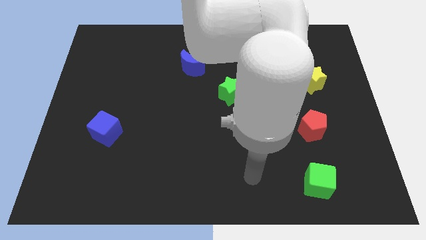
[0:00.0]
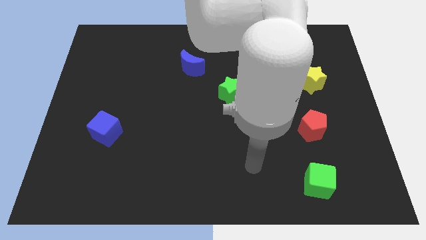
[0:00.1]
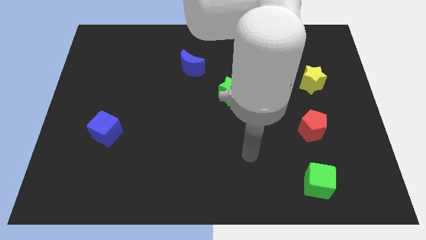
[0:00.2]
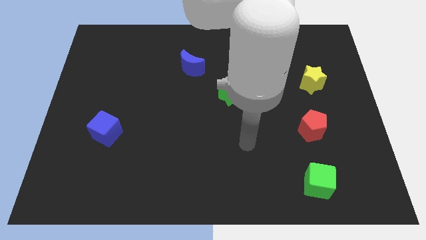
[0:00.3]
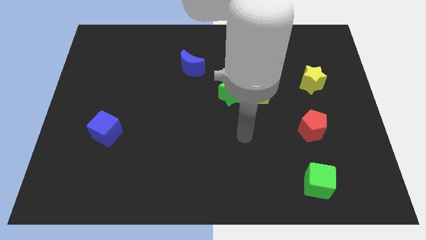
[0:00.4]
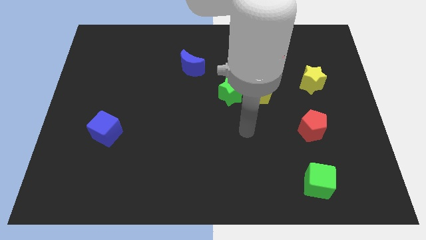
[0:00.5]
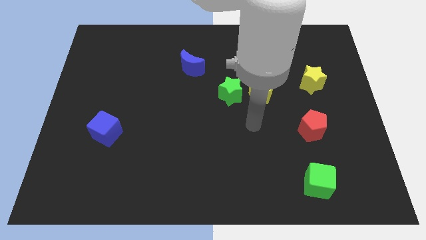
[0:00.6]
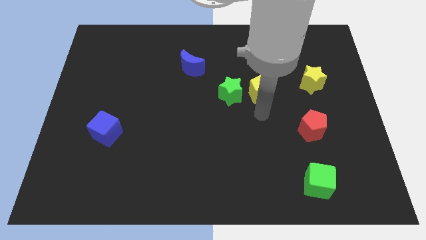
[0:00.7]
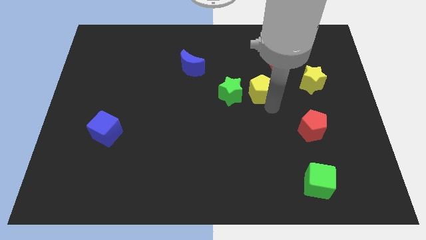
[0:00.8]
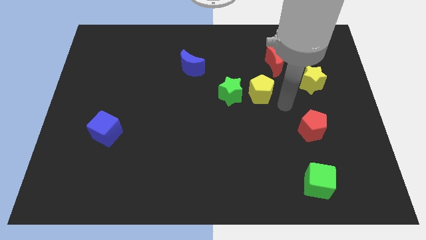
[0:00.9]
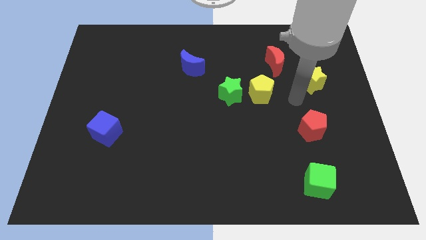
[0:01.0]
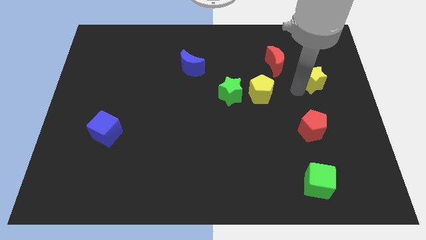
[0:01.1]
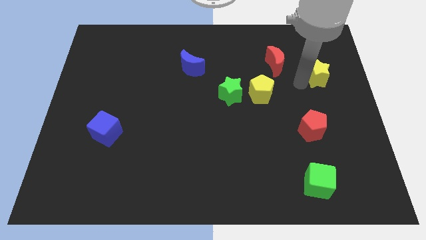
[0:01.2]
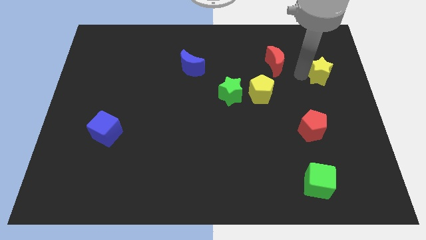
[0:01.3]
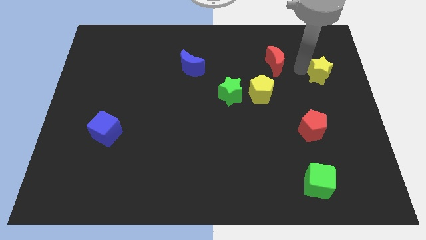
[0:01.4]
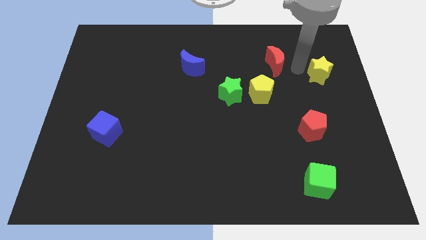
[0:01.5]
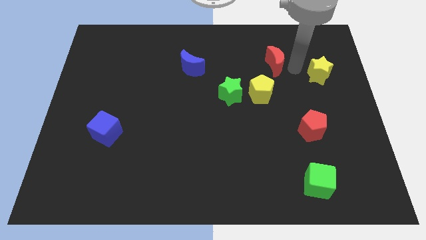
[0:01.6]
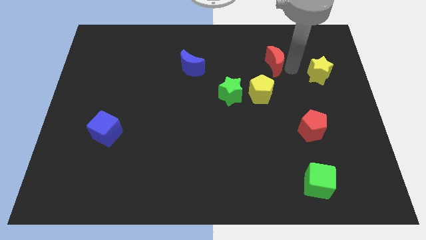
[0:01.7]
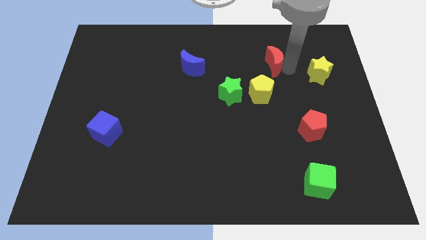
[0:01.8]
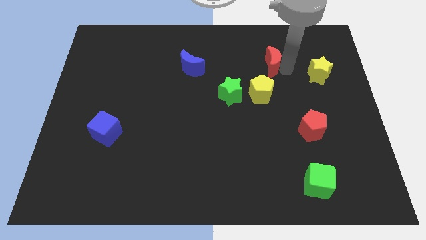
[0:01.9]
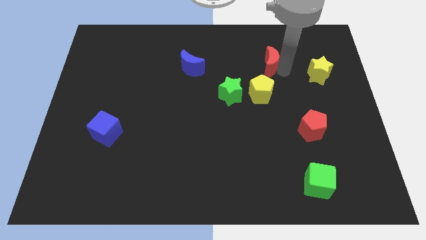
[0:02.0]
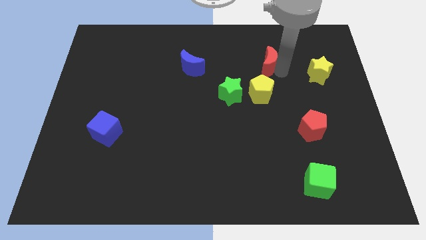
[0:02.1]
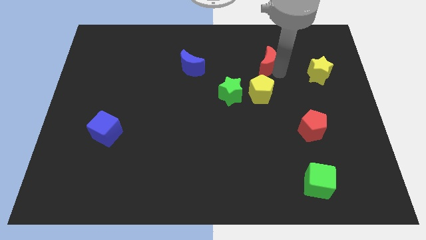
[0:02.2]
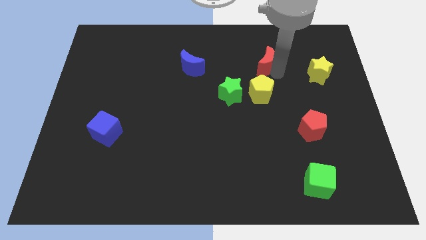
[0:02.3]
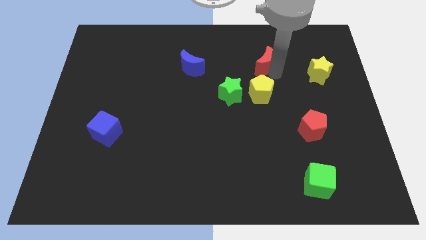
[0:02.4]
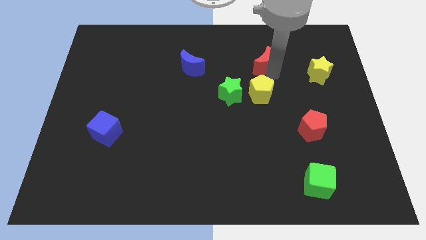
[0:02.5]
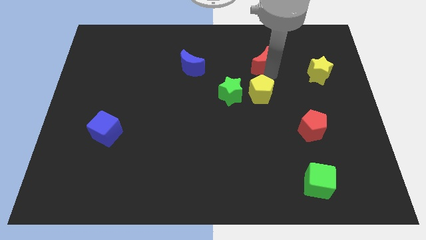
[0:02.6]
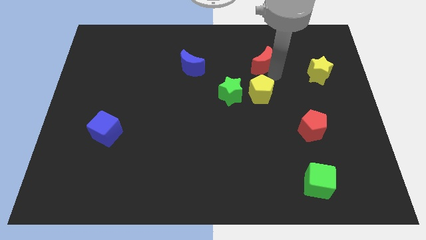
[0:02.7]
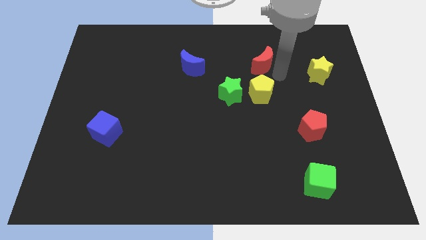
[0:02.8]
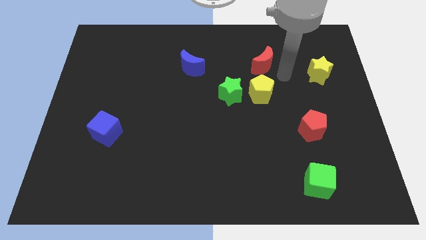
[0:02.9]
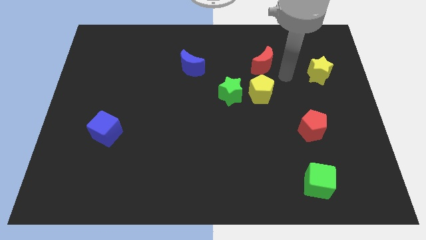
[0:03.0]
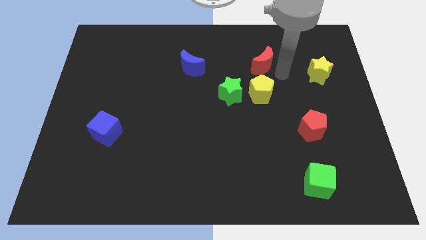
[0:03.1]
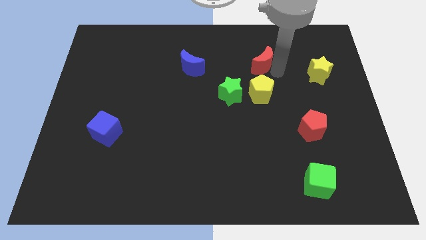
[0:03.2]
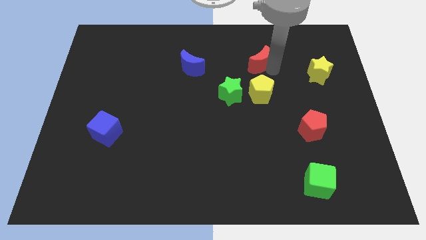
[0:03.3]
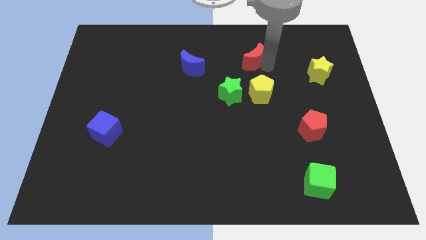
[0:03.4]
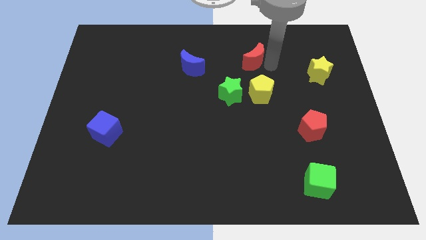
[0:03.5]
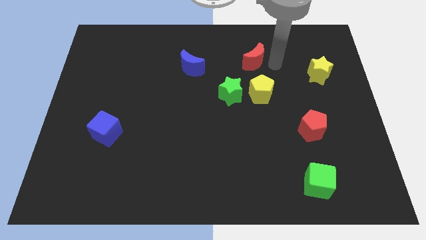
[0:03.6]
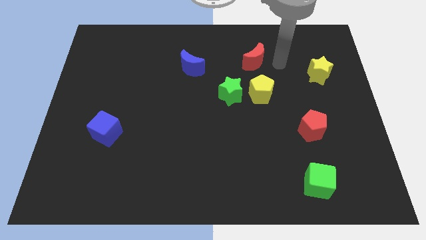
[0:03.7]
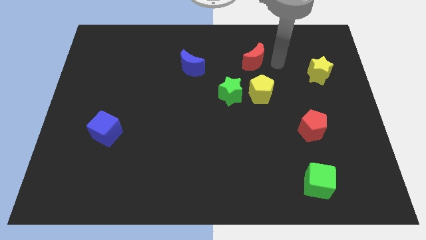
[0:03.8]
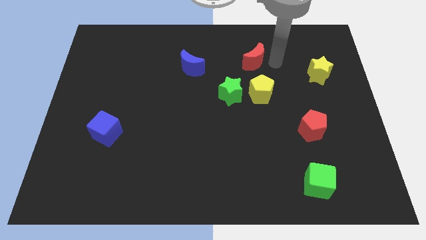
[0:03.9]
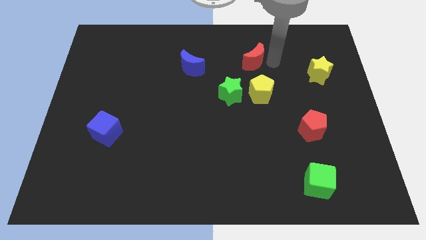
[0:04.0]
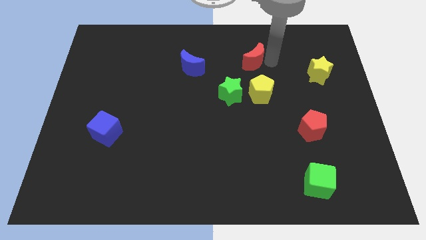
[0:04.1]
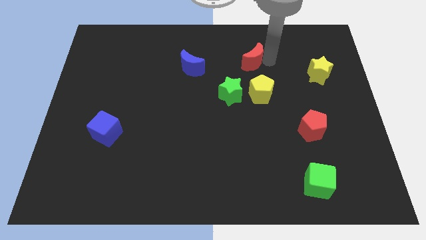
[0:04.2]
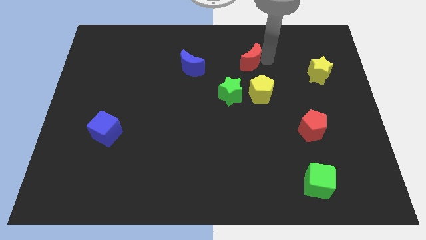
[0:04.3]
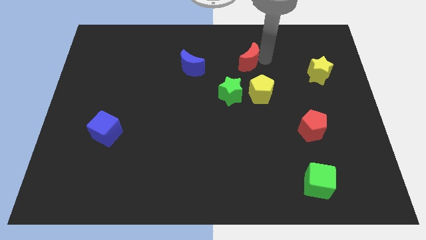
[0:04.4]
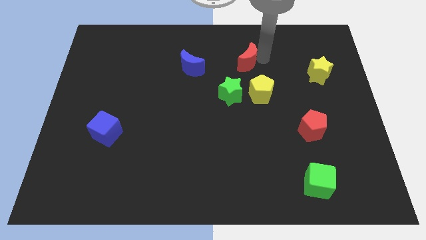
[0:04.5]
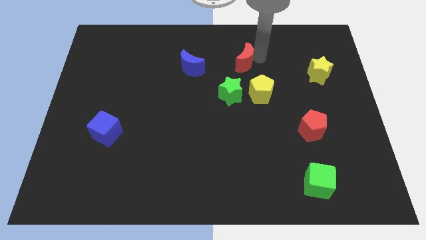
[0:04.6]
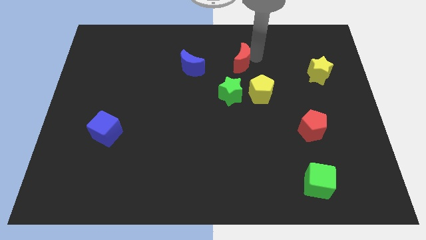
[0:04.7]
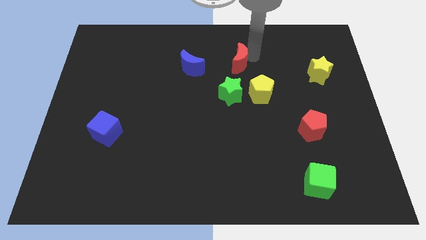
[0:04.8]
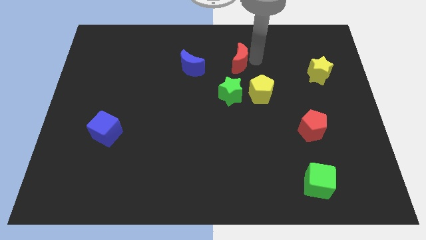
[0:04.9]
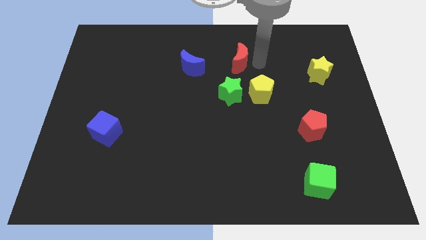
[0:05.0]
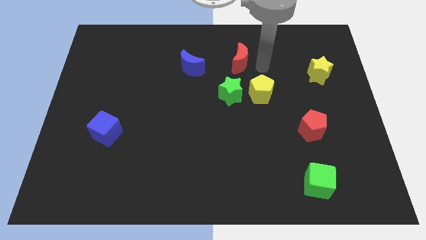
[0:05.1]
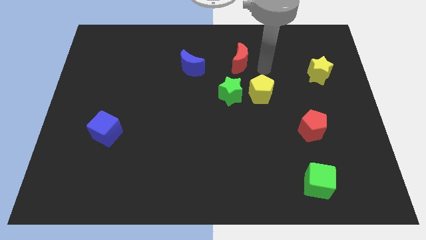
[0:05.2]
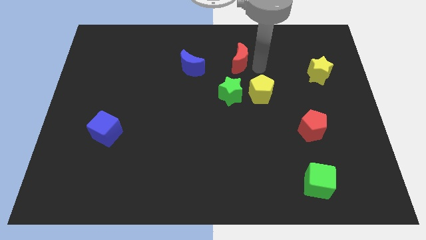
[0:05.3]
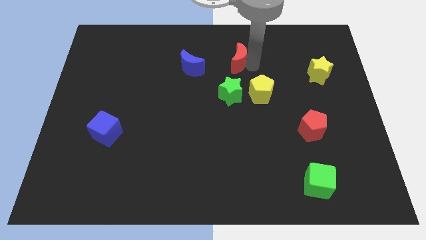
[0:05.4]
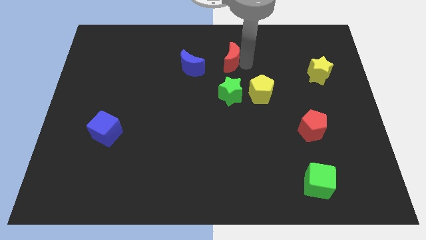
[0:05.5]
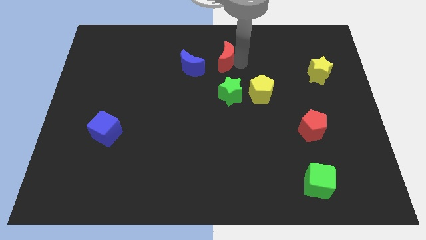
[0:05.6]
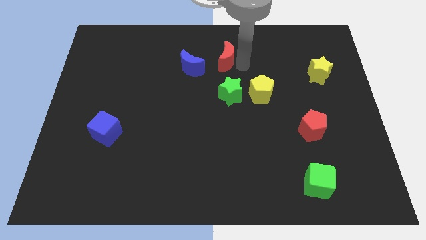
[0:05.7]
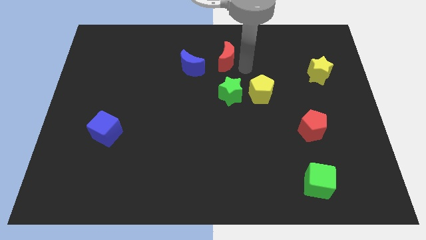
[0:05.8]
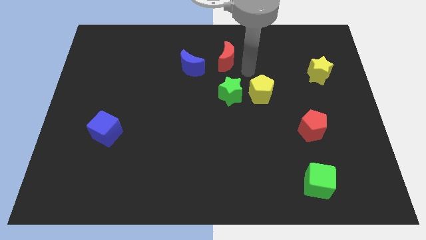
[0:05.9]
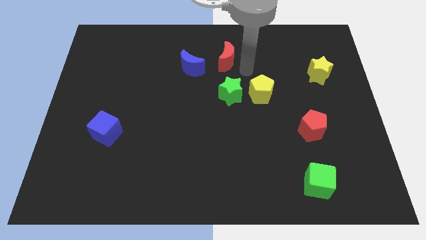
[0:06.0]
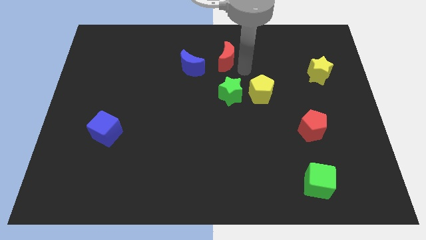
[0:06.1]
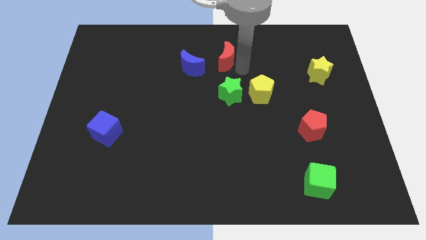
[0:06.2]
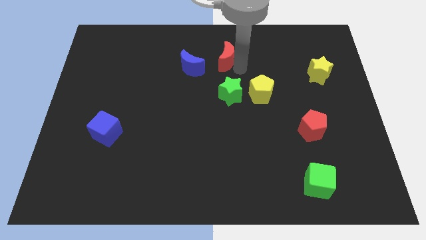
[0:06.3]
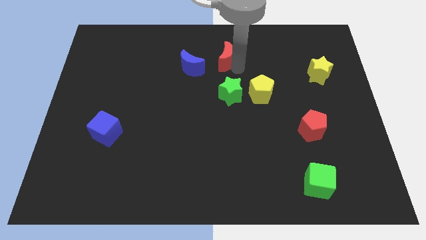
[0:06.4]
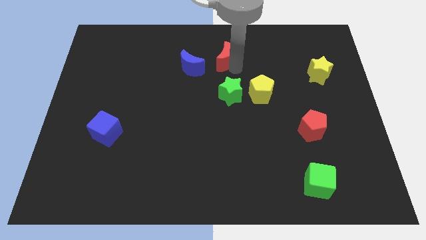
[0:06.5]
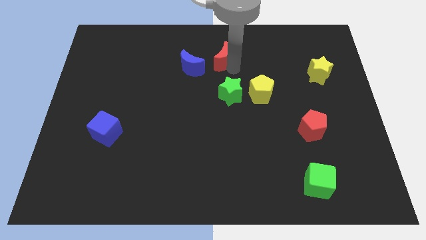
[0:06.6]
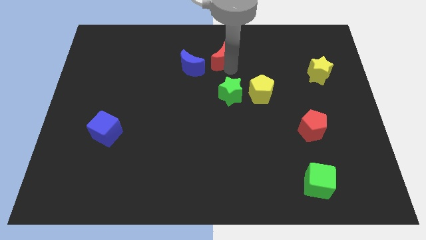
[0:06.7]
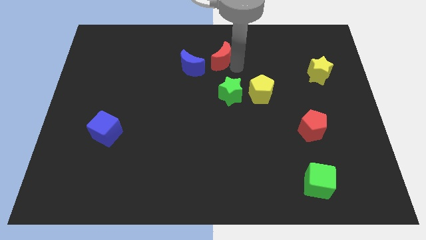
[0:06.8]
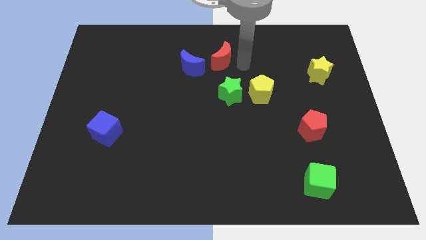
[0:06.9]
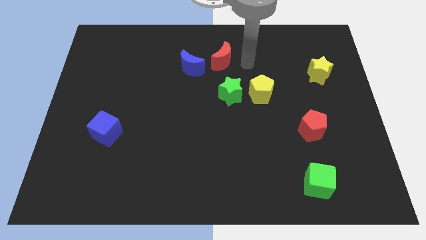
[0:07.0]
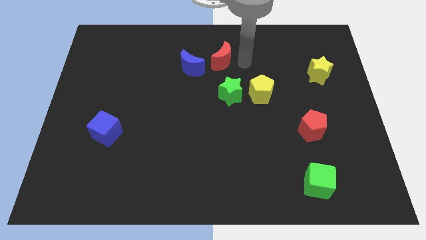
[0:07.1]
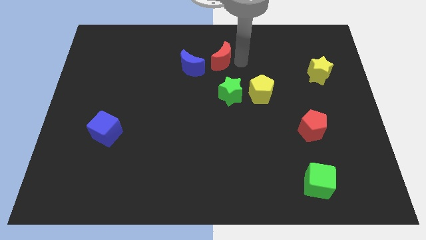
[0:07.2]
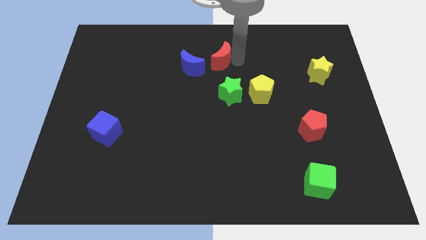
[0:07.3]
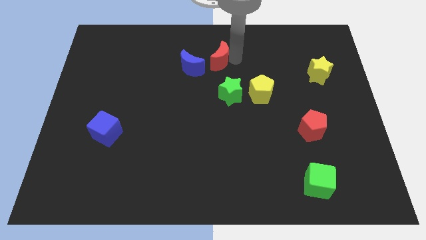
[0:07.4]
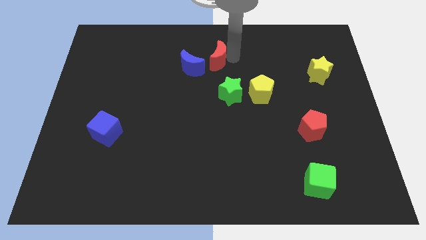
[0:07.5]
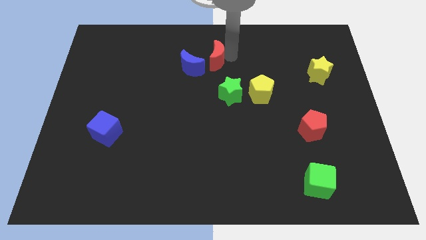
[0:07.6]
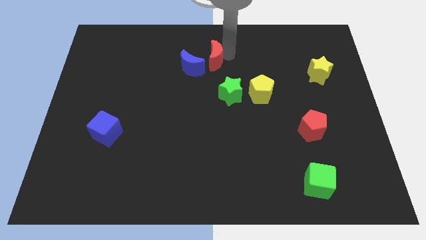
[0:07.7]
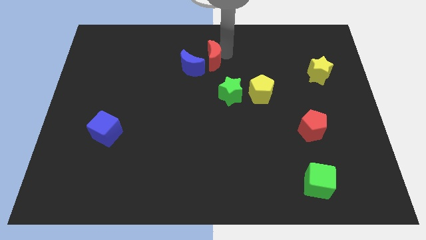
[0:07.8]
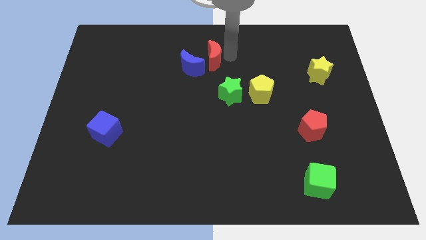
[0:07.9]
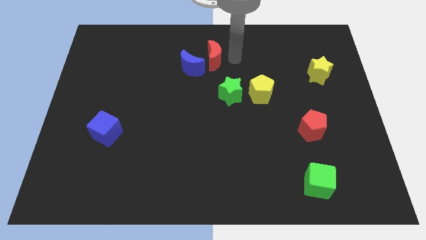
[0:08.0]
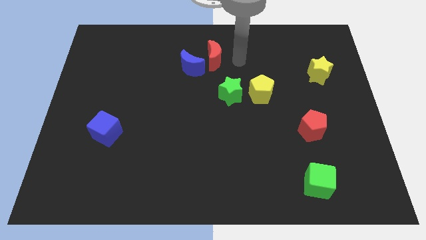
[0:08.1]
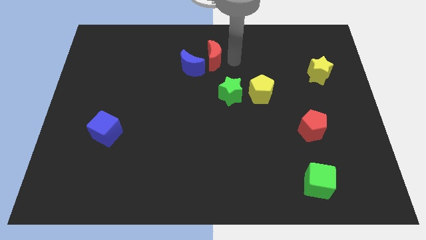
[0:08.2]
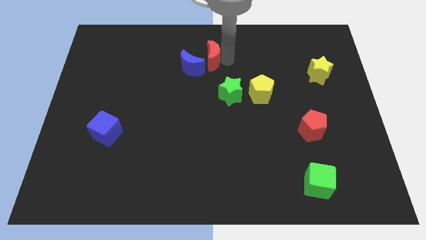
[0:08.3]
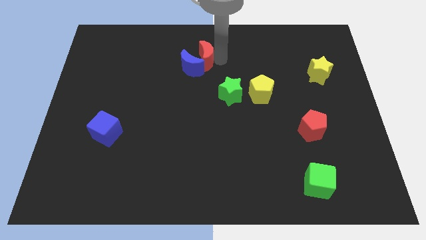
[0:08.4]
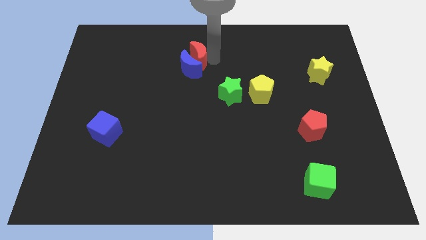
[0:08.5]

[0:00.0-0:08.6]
slide the red moon left
